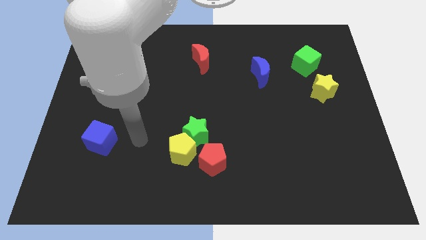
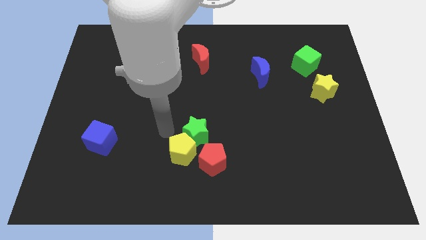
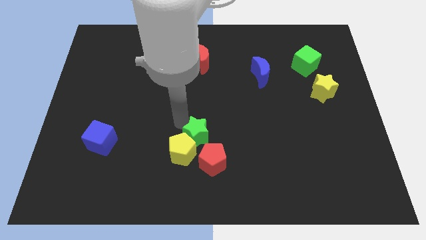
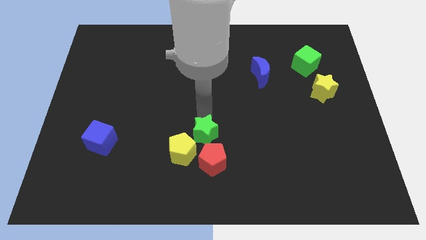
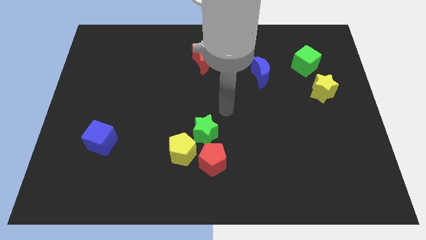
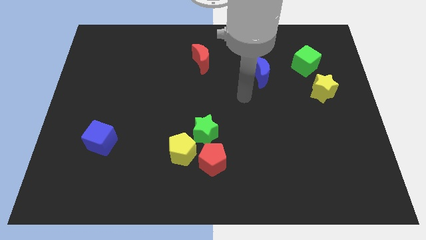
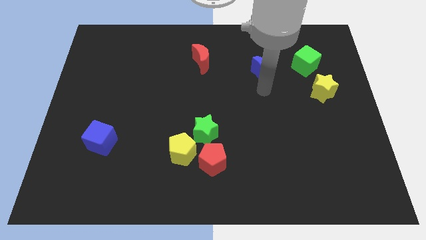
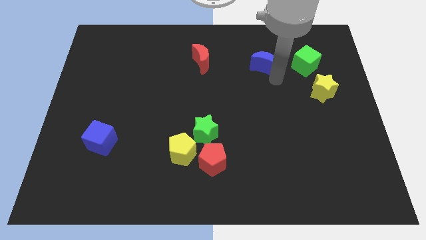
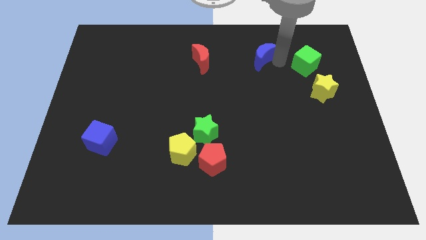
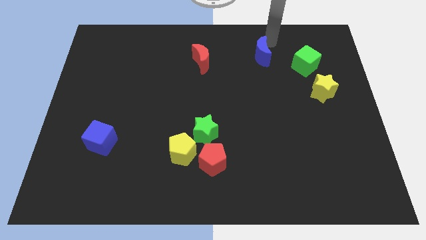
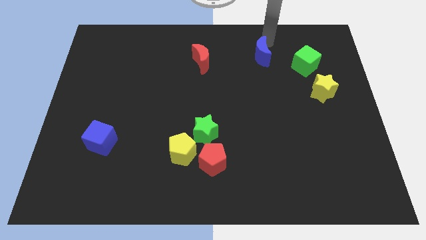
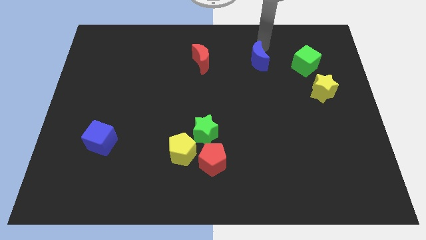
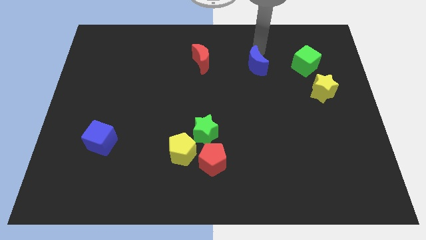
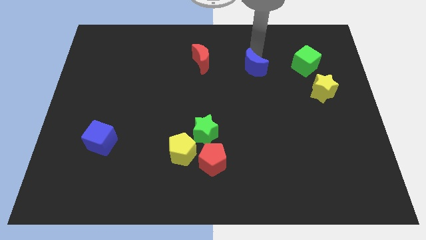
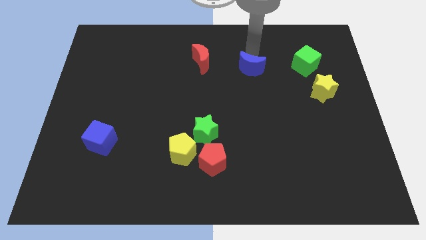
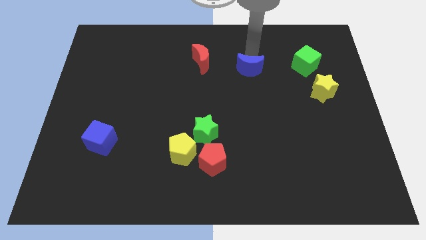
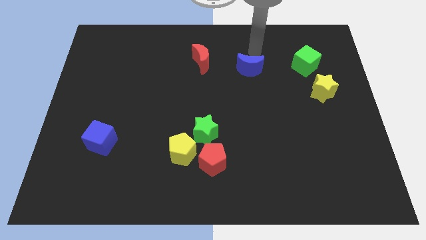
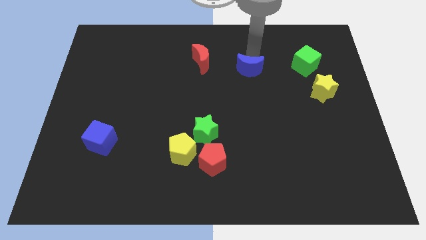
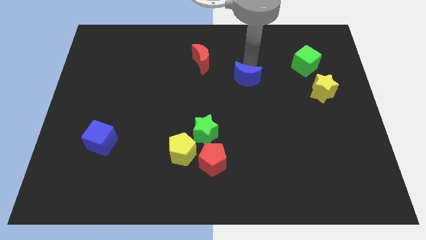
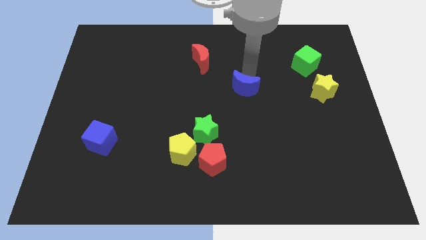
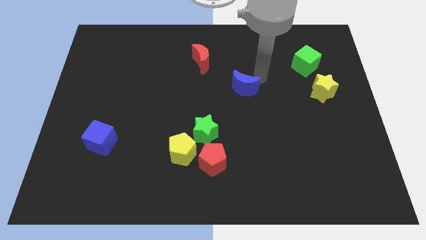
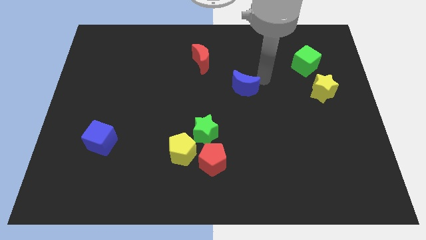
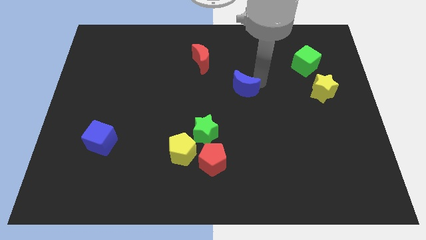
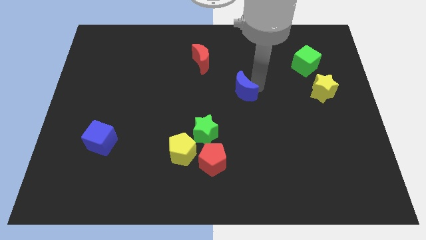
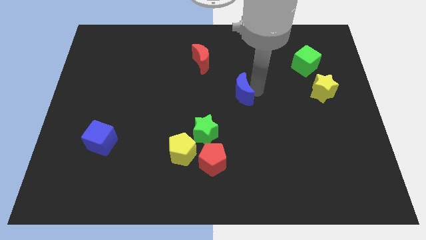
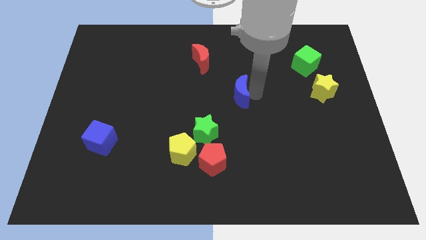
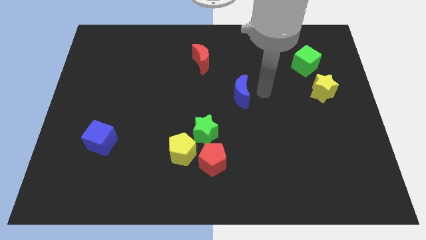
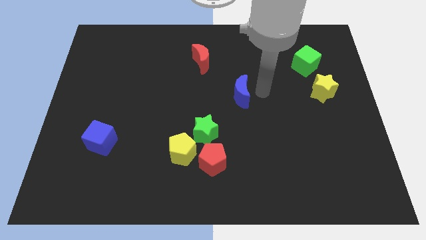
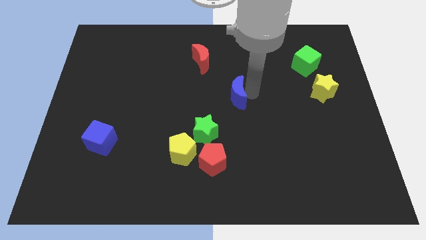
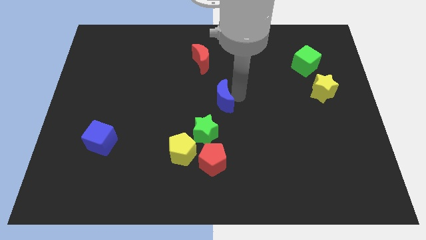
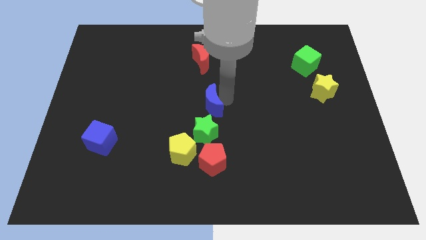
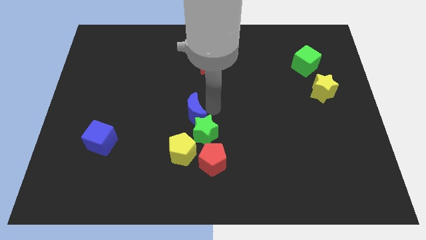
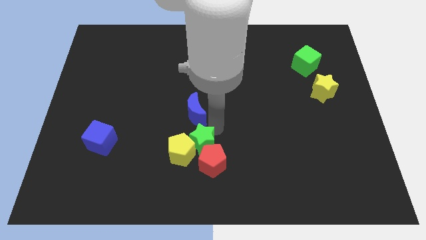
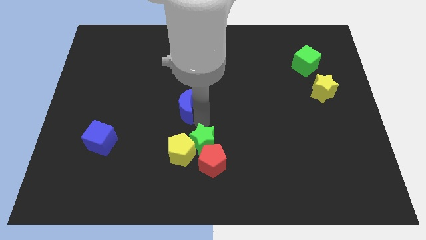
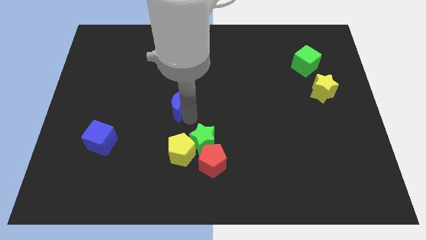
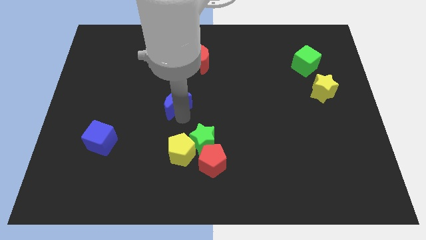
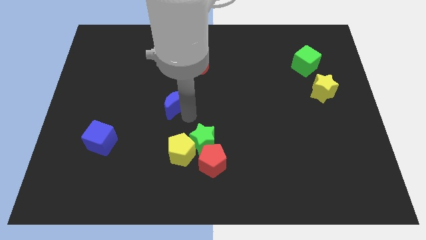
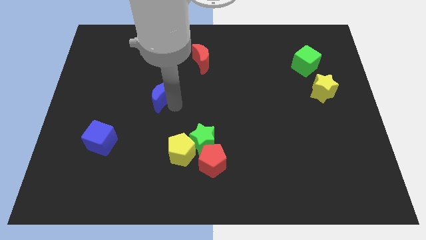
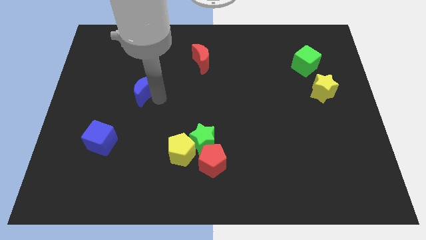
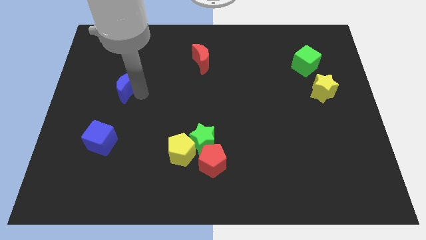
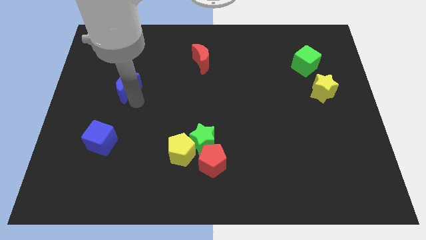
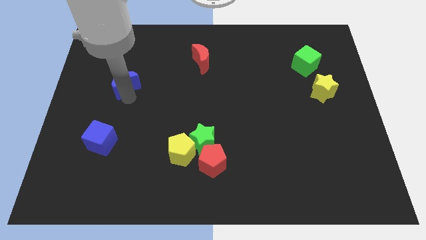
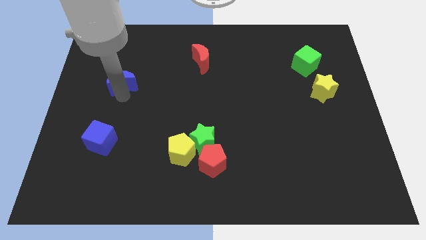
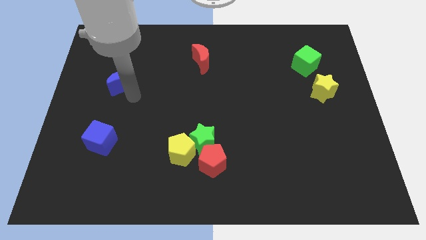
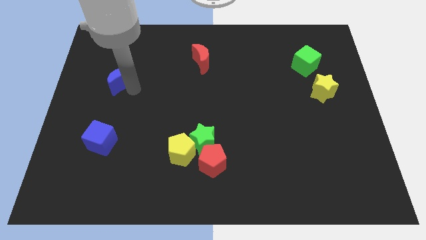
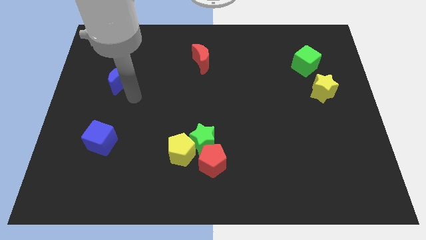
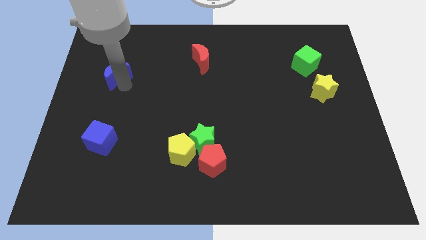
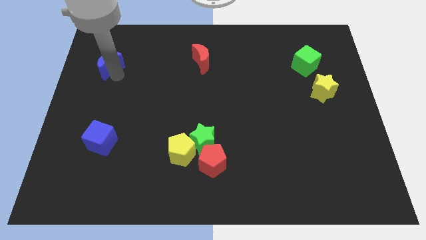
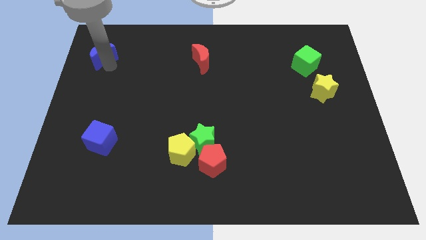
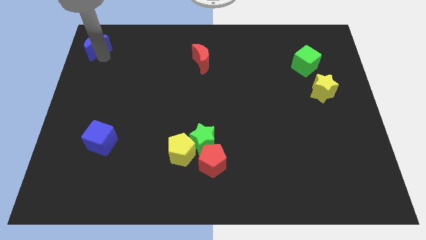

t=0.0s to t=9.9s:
slide the blue moon to the top left corner

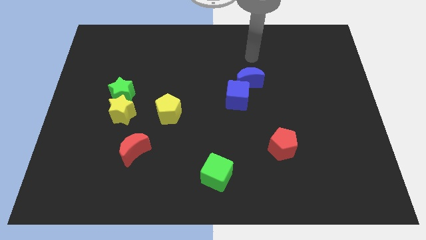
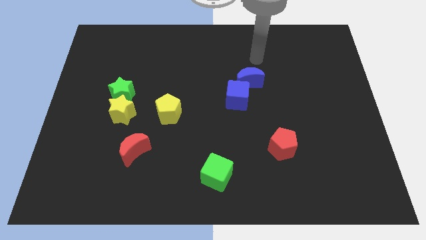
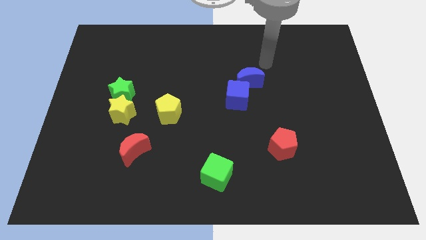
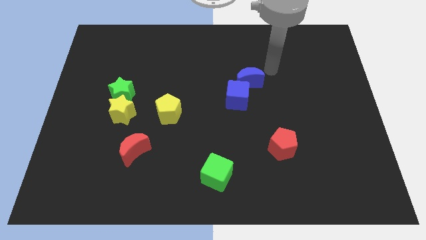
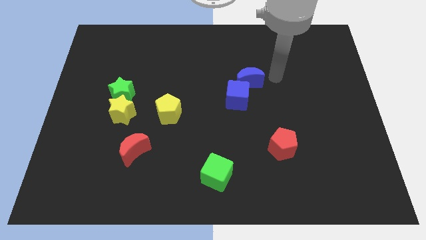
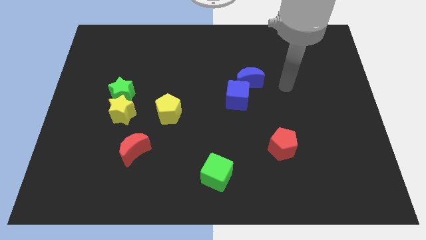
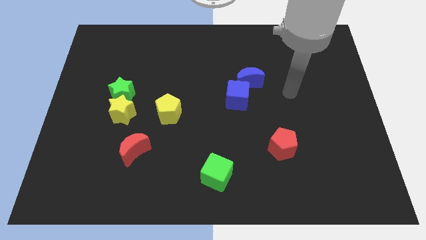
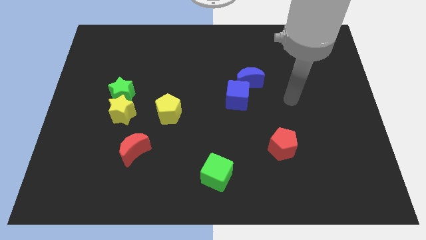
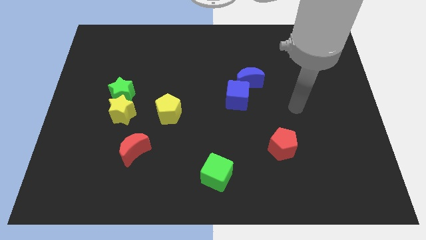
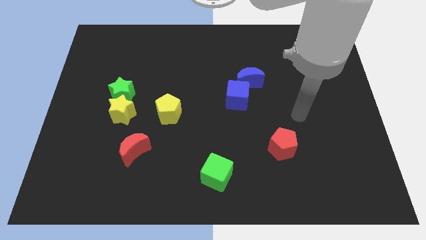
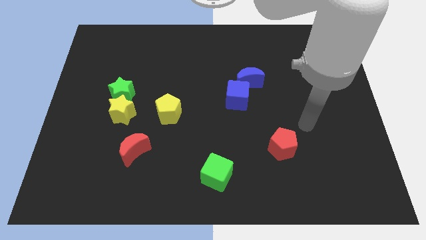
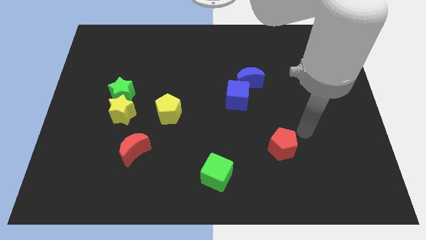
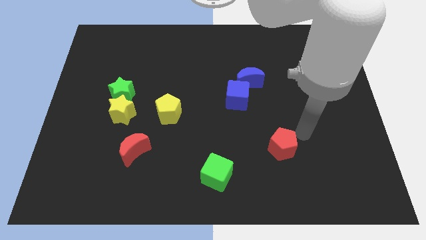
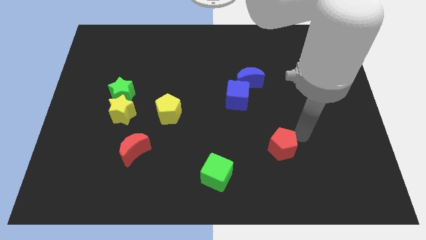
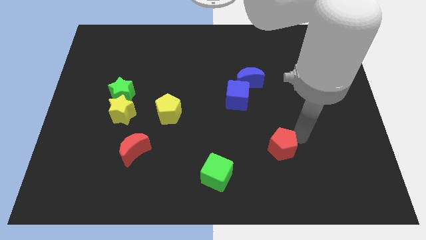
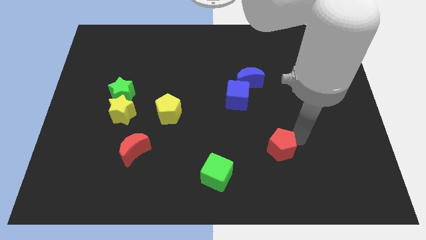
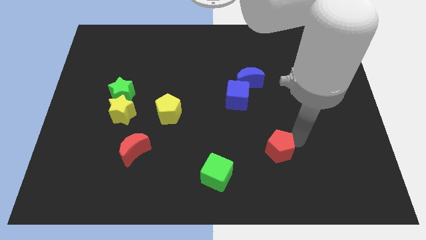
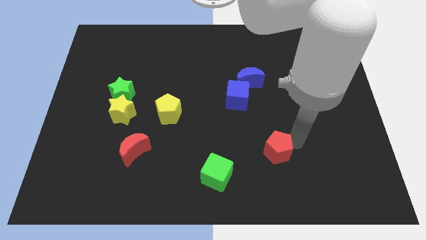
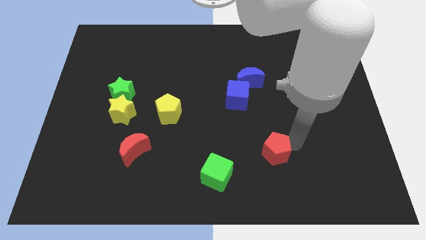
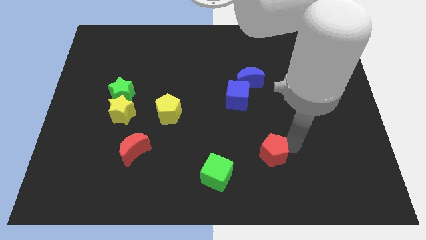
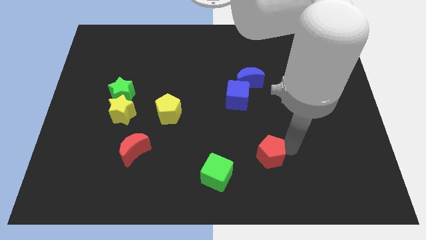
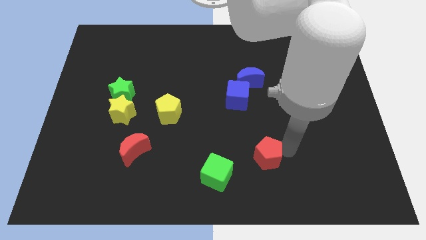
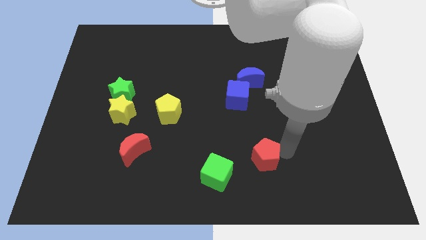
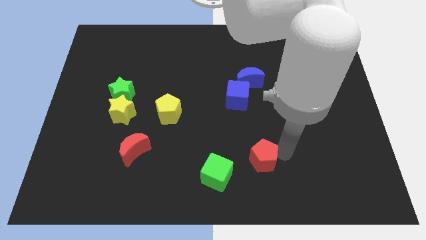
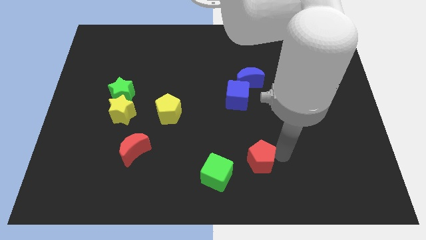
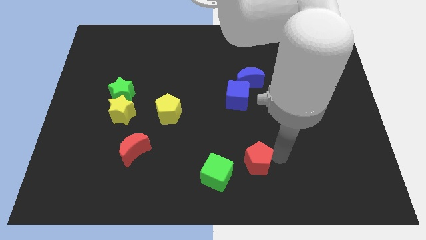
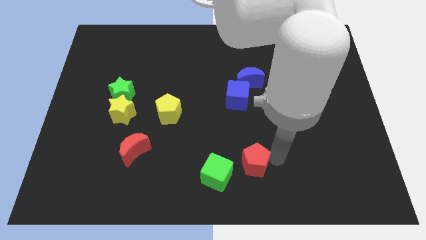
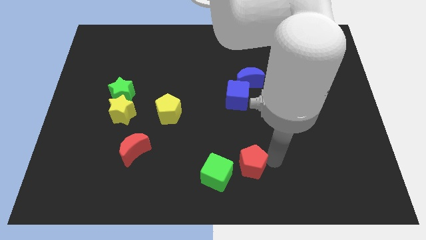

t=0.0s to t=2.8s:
put the red pentagon to the bottom side

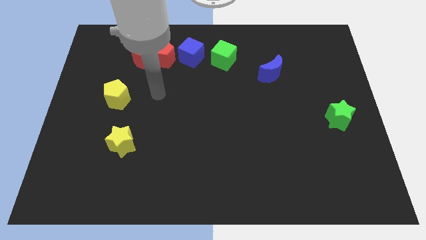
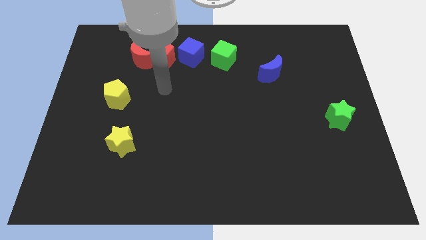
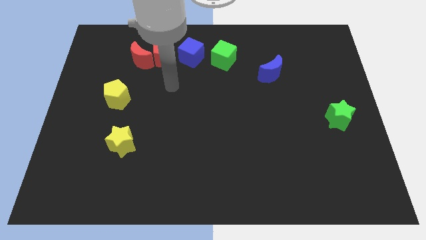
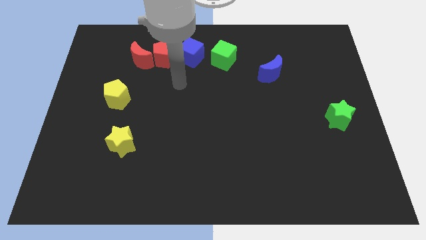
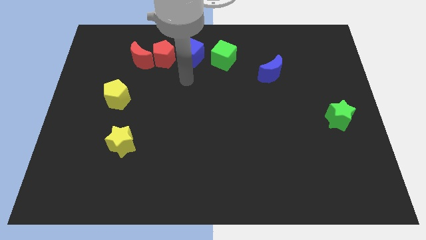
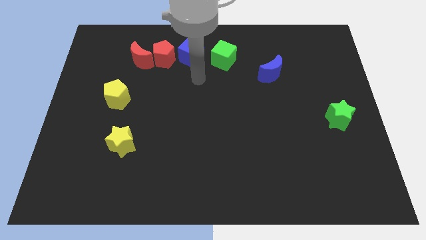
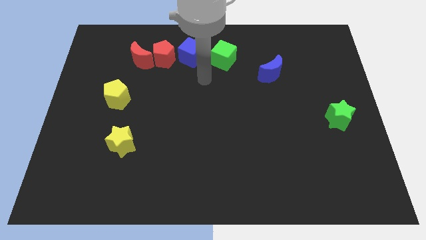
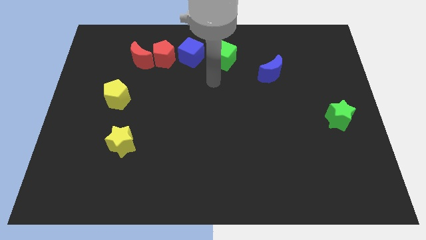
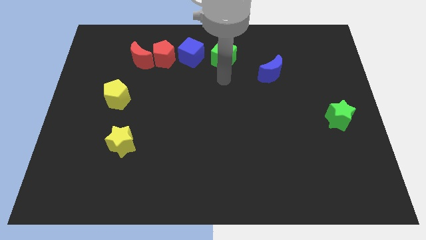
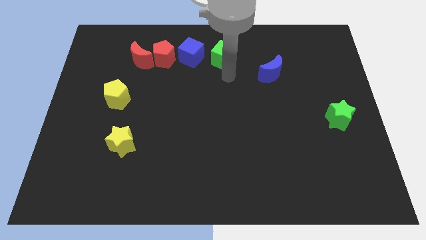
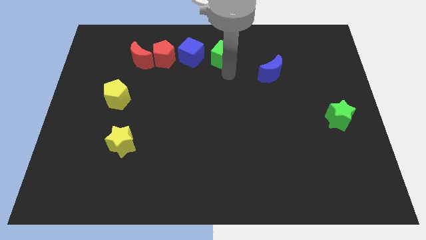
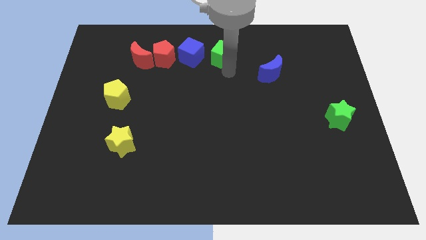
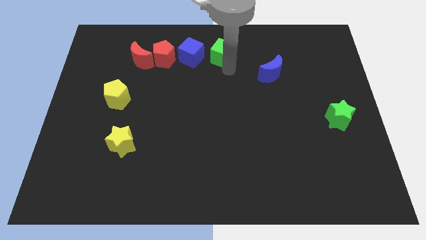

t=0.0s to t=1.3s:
slide the green cube to the top
